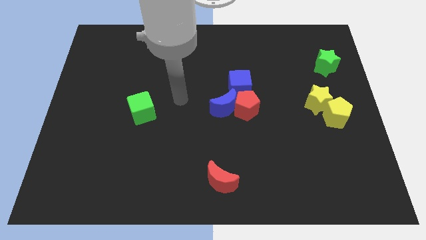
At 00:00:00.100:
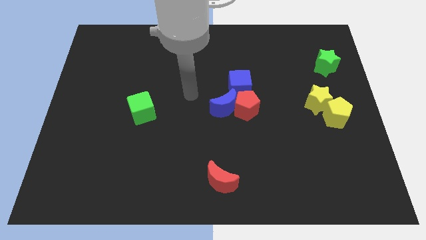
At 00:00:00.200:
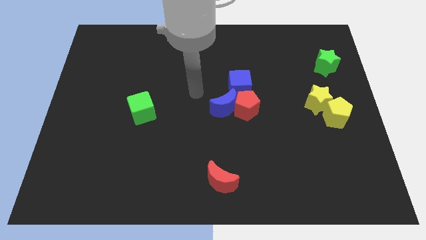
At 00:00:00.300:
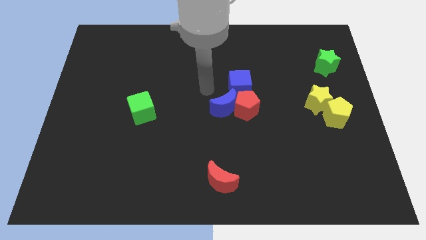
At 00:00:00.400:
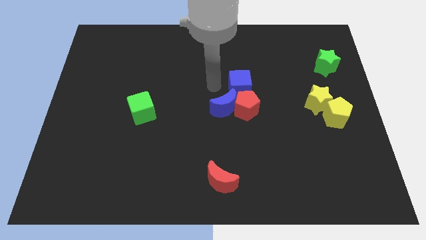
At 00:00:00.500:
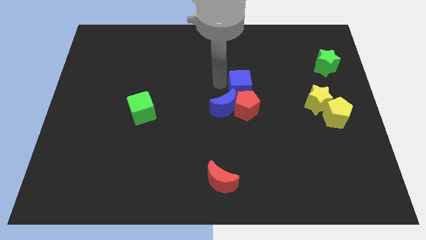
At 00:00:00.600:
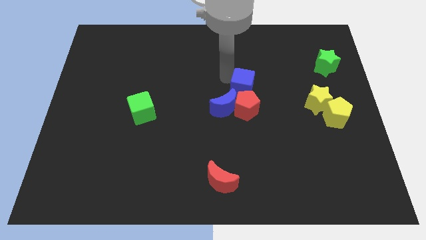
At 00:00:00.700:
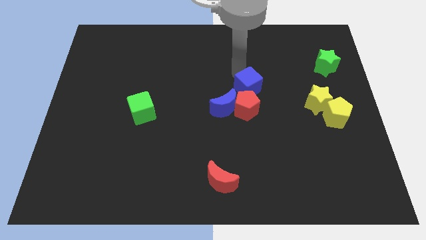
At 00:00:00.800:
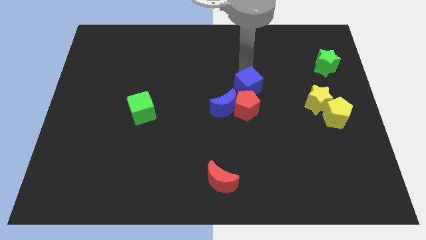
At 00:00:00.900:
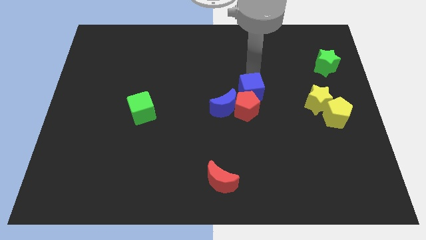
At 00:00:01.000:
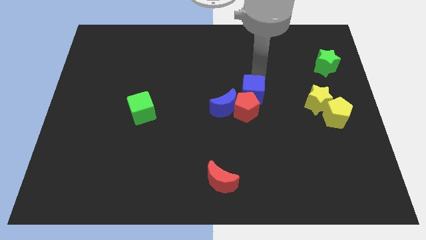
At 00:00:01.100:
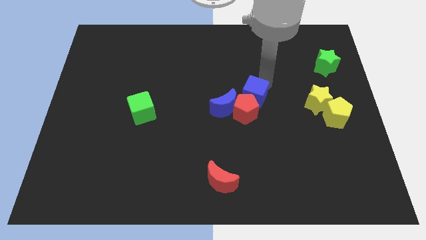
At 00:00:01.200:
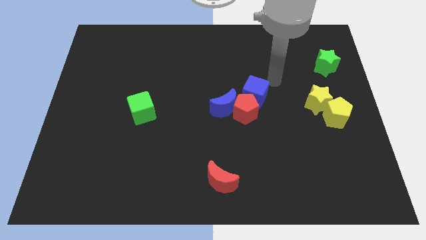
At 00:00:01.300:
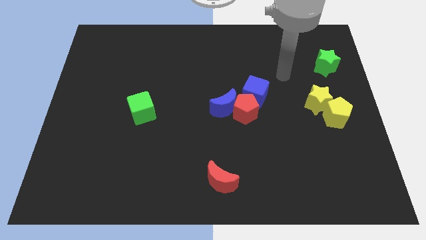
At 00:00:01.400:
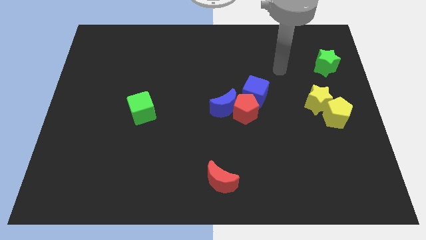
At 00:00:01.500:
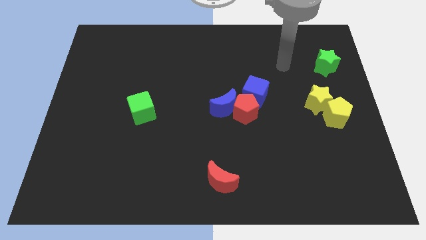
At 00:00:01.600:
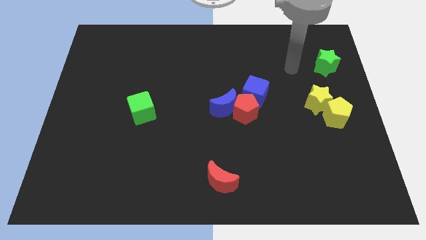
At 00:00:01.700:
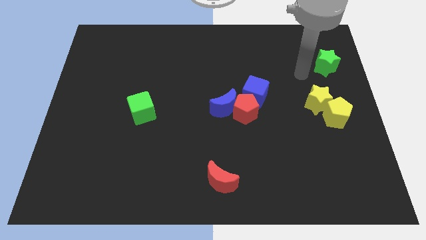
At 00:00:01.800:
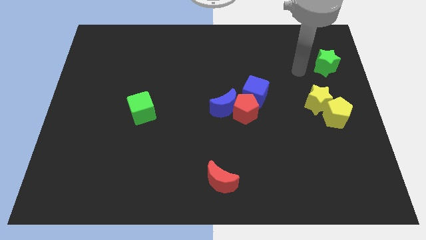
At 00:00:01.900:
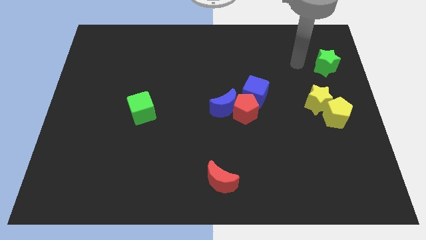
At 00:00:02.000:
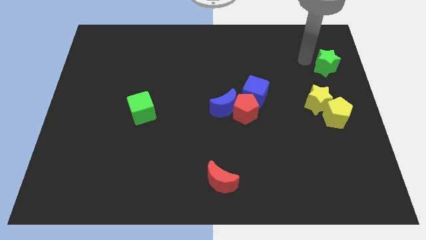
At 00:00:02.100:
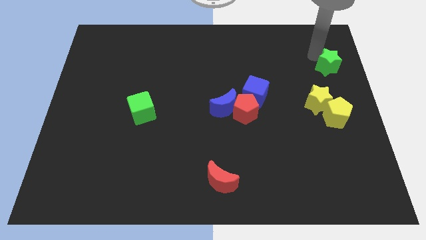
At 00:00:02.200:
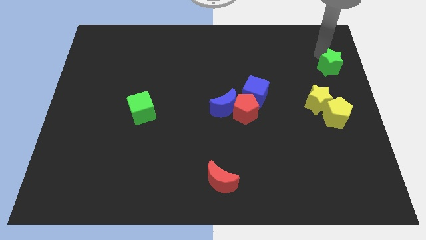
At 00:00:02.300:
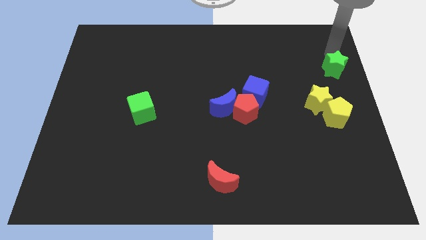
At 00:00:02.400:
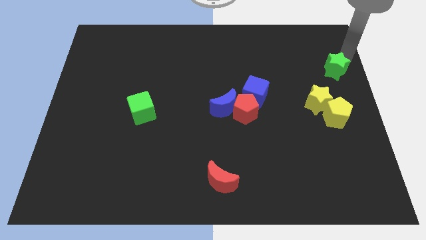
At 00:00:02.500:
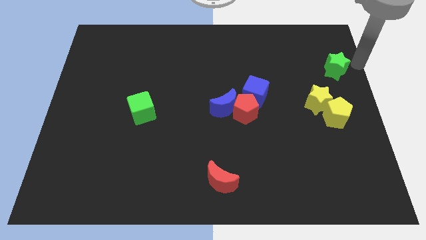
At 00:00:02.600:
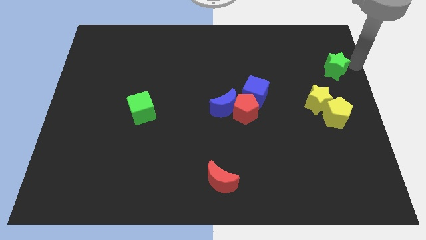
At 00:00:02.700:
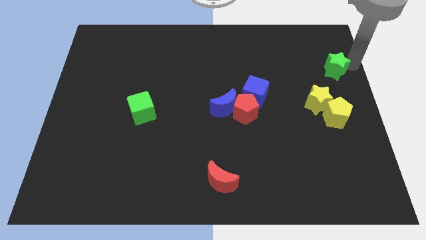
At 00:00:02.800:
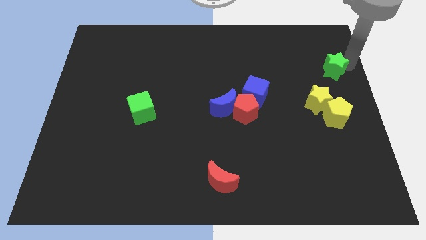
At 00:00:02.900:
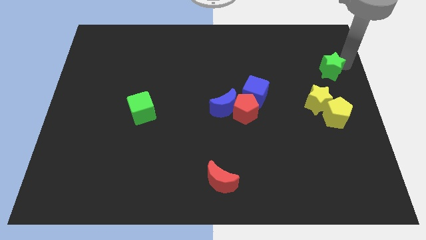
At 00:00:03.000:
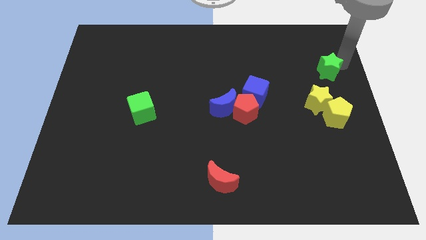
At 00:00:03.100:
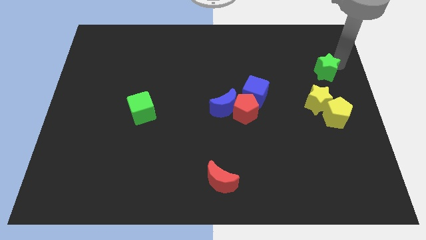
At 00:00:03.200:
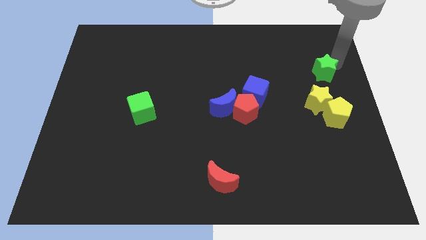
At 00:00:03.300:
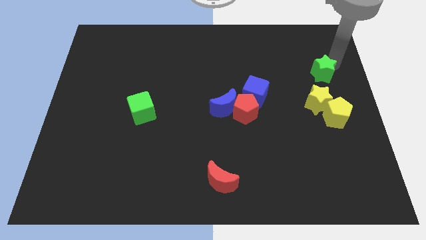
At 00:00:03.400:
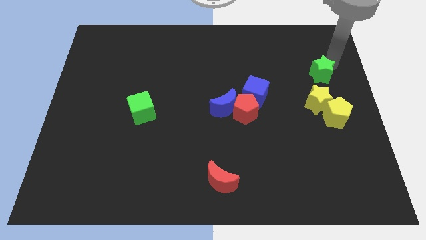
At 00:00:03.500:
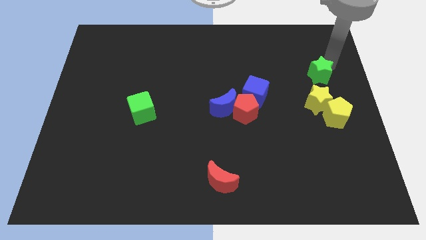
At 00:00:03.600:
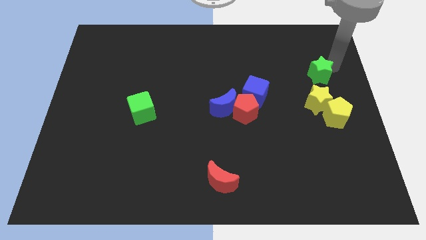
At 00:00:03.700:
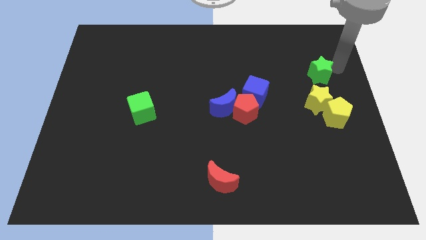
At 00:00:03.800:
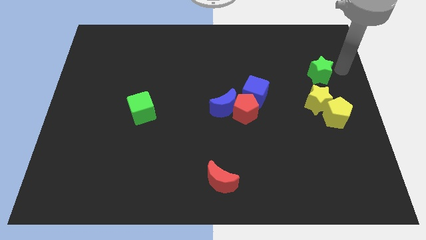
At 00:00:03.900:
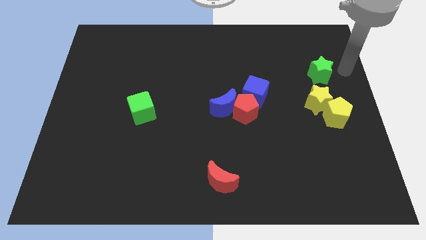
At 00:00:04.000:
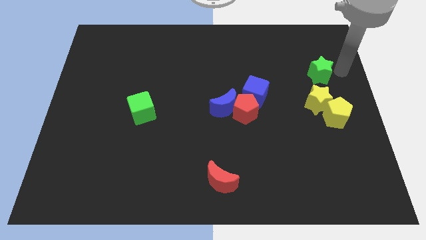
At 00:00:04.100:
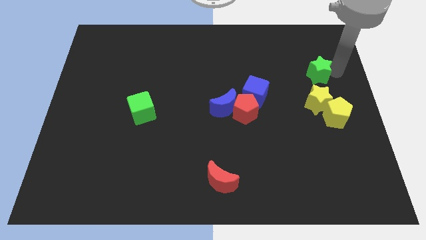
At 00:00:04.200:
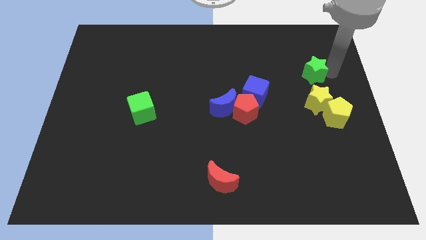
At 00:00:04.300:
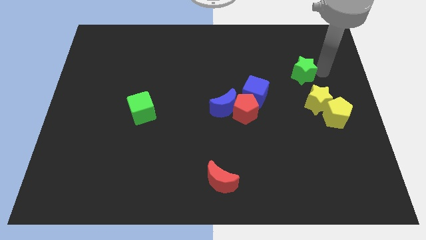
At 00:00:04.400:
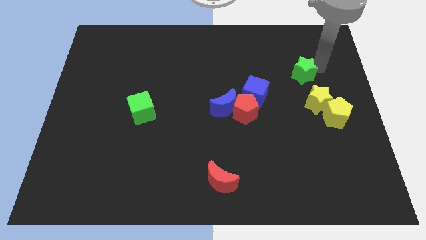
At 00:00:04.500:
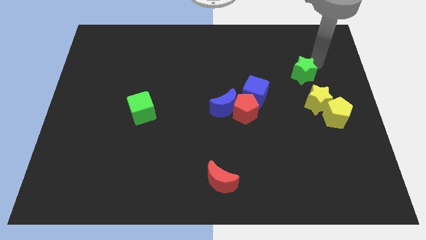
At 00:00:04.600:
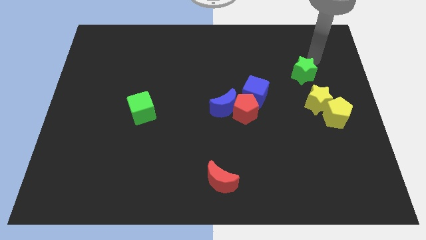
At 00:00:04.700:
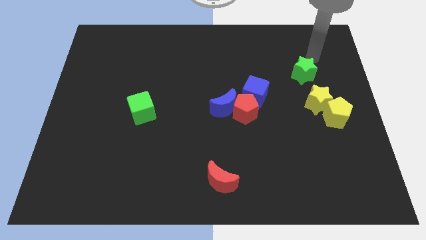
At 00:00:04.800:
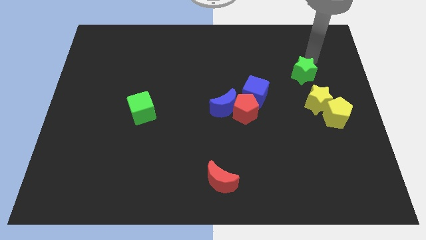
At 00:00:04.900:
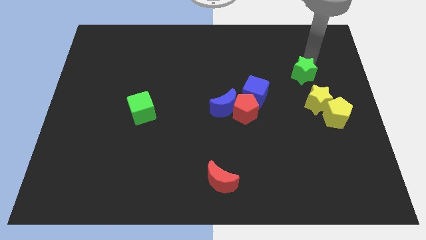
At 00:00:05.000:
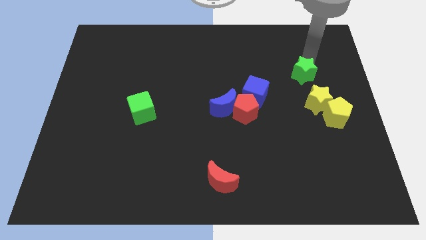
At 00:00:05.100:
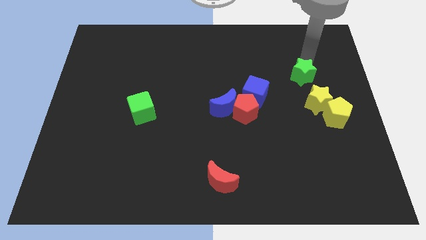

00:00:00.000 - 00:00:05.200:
slightly push the green star downwards and to the left

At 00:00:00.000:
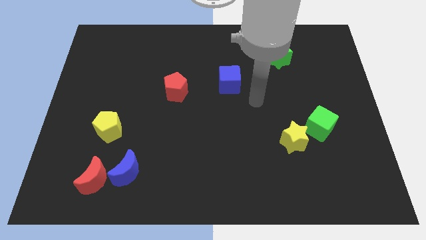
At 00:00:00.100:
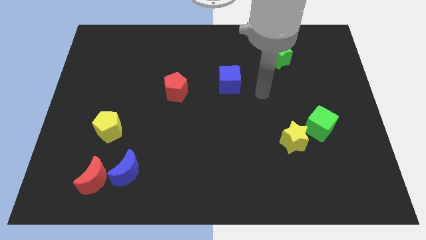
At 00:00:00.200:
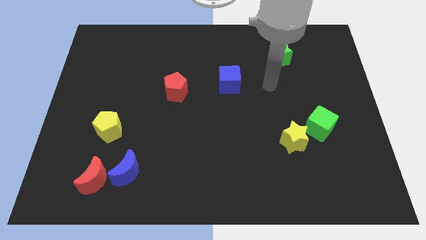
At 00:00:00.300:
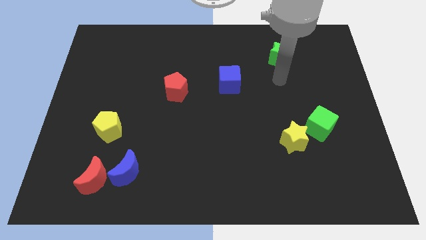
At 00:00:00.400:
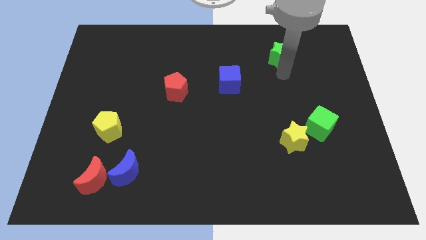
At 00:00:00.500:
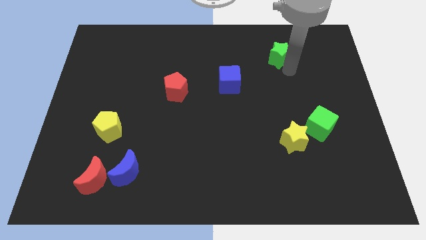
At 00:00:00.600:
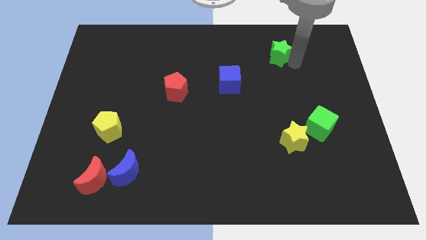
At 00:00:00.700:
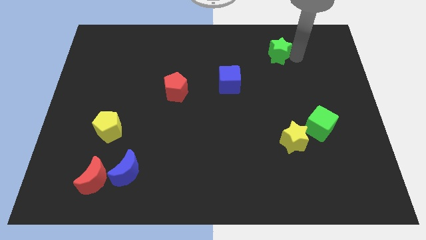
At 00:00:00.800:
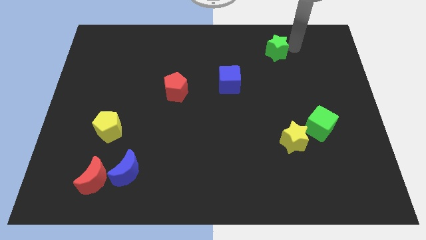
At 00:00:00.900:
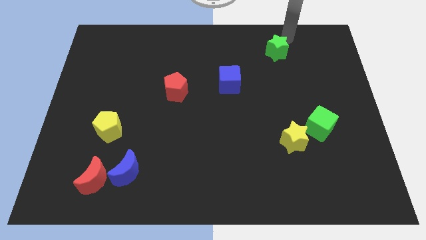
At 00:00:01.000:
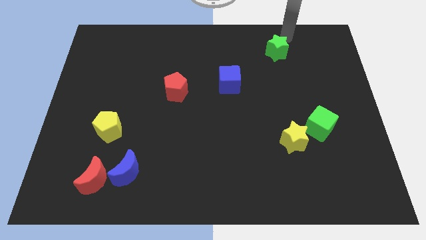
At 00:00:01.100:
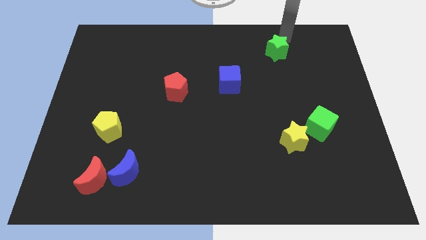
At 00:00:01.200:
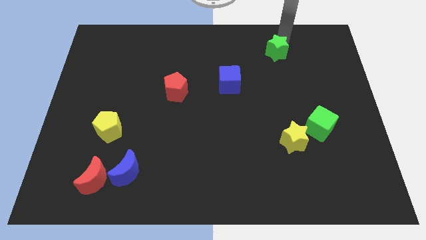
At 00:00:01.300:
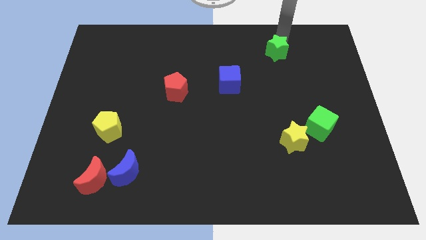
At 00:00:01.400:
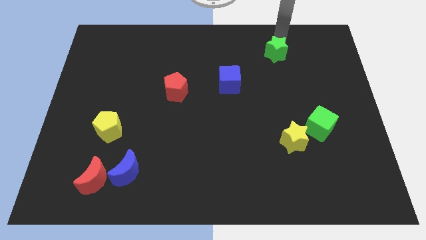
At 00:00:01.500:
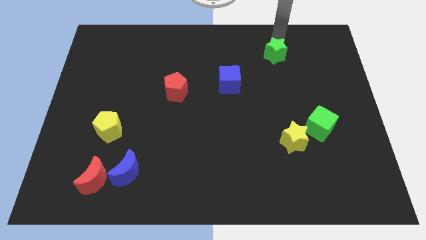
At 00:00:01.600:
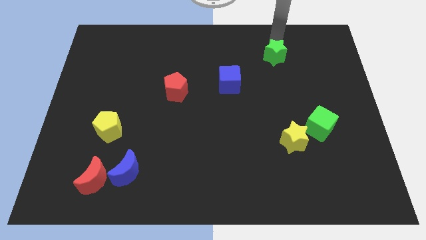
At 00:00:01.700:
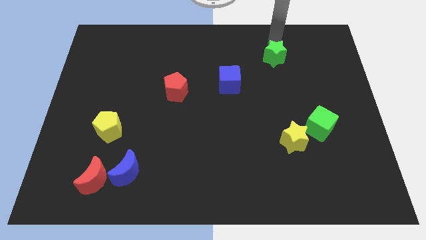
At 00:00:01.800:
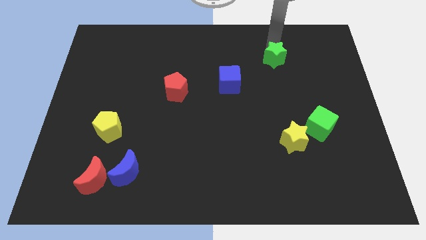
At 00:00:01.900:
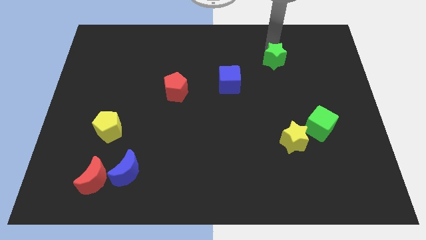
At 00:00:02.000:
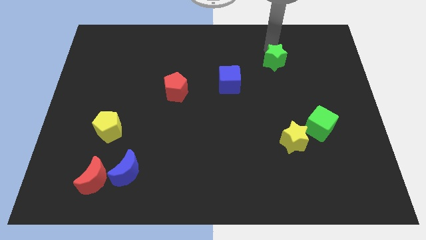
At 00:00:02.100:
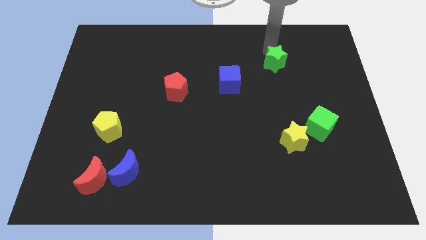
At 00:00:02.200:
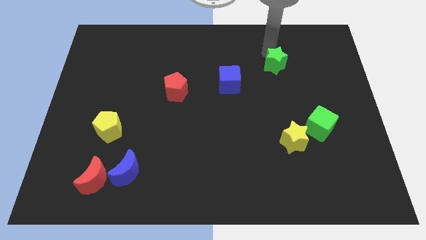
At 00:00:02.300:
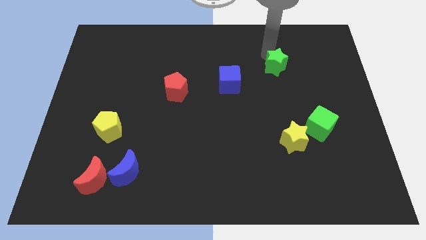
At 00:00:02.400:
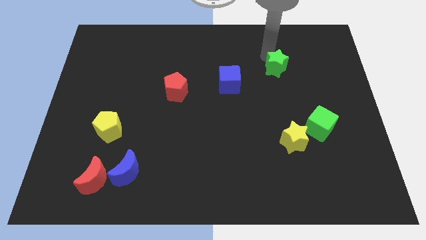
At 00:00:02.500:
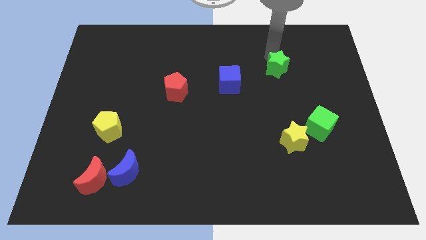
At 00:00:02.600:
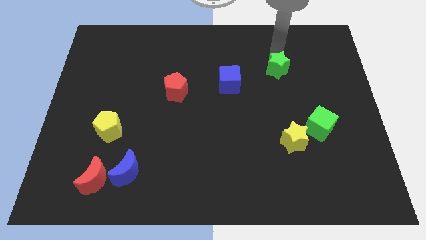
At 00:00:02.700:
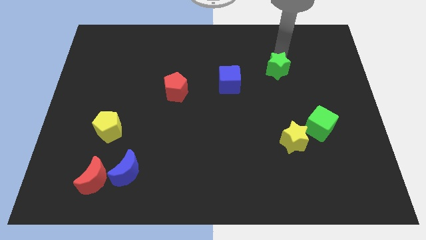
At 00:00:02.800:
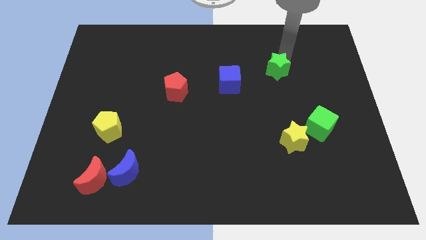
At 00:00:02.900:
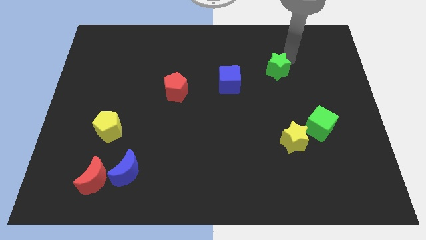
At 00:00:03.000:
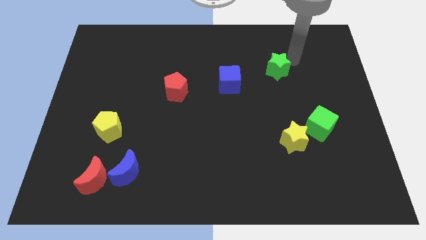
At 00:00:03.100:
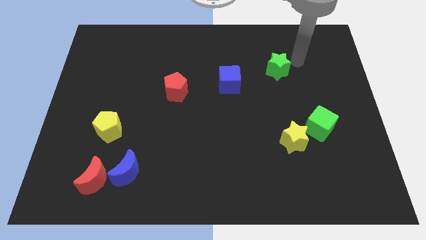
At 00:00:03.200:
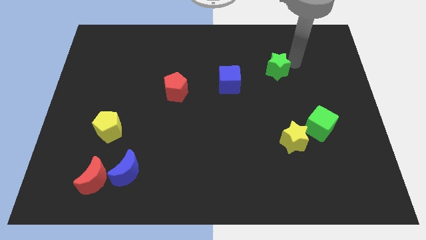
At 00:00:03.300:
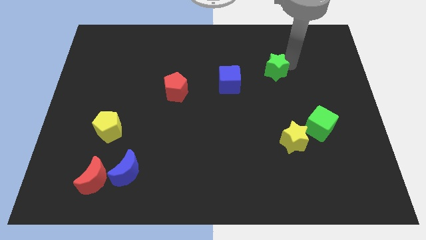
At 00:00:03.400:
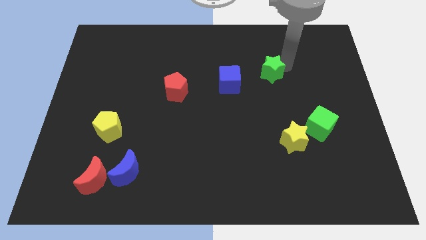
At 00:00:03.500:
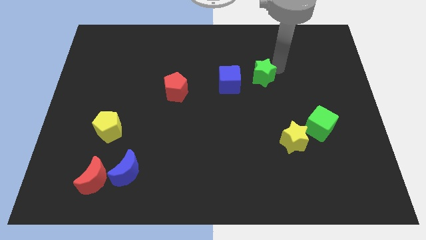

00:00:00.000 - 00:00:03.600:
slightly move the green star downwards and left diagonally
